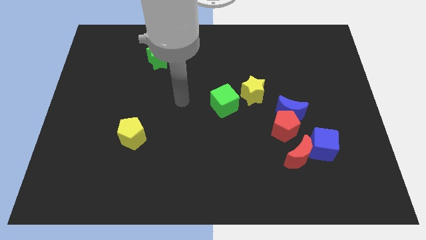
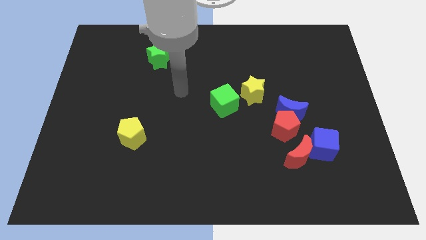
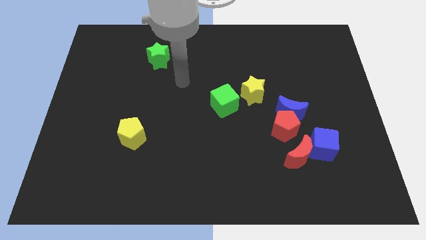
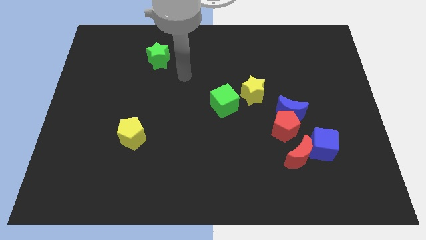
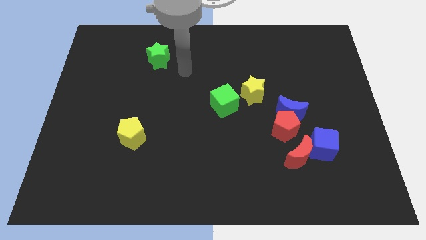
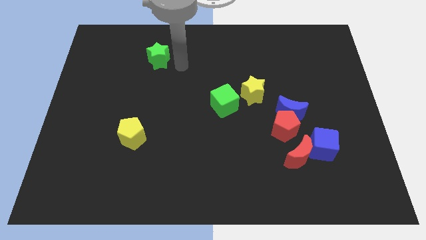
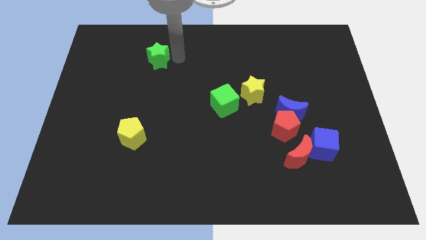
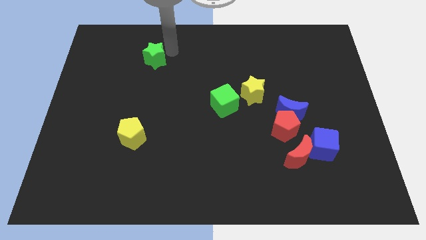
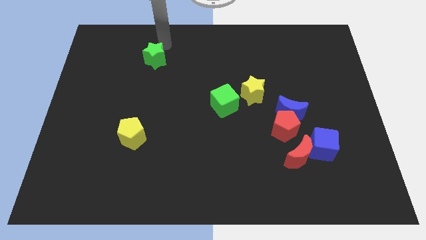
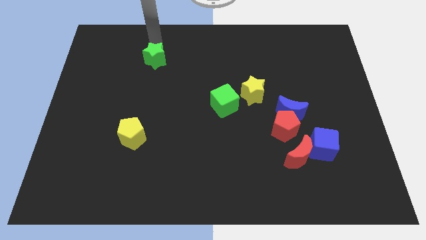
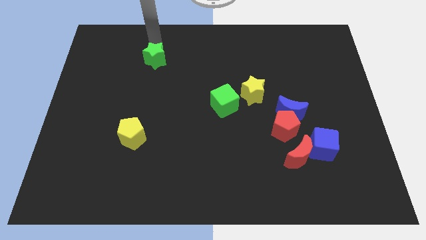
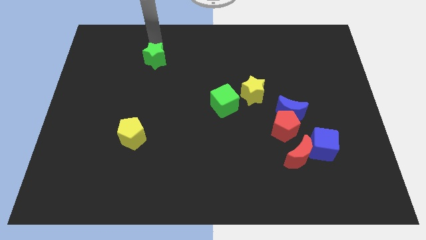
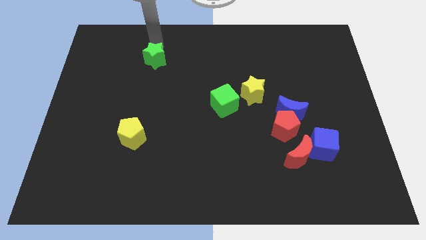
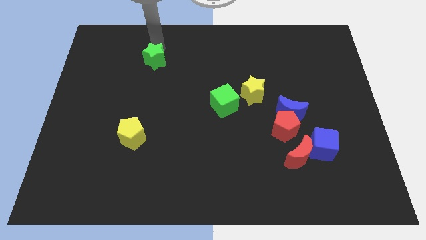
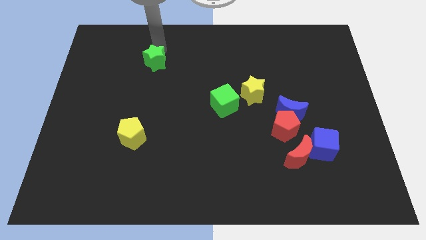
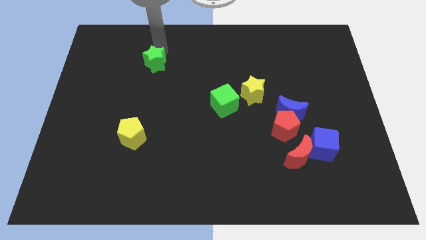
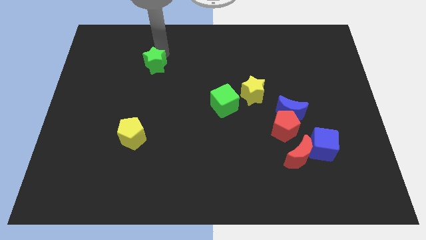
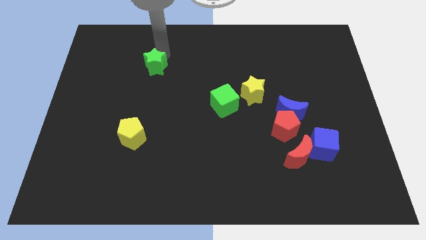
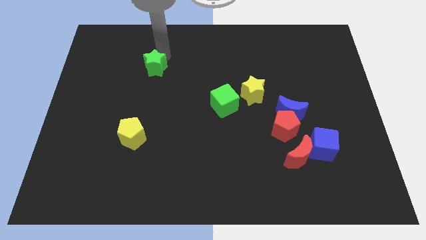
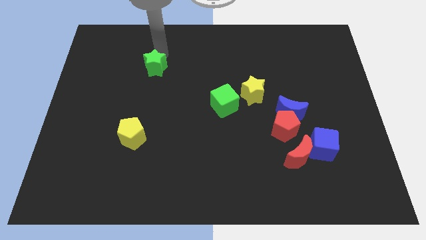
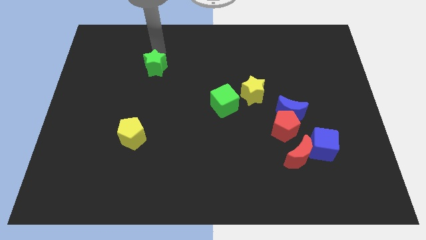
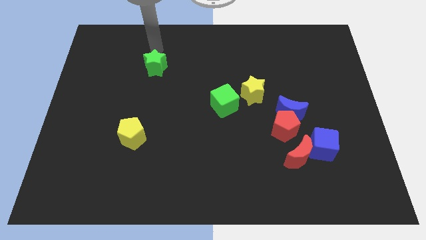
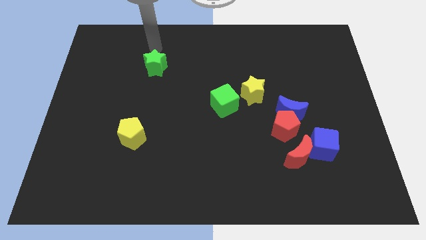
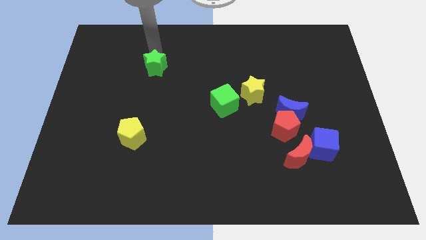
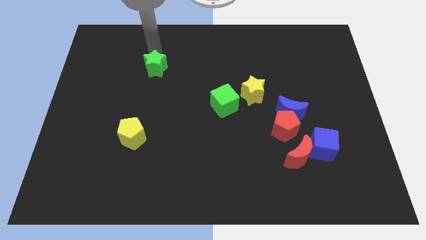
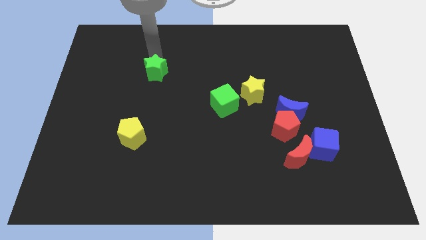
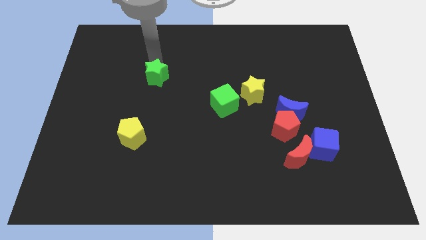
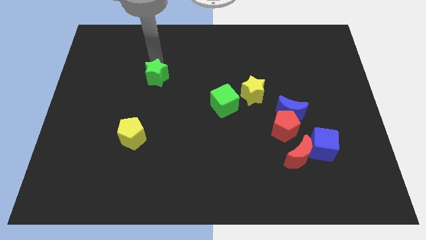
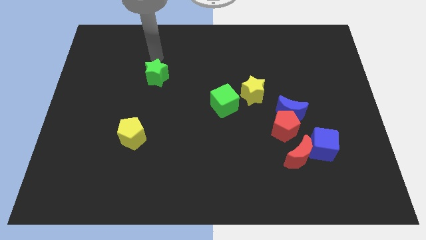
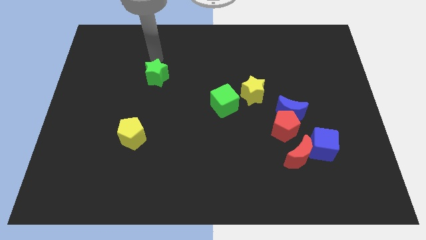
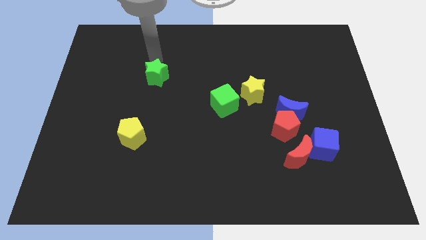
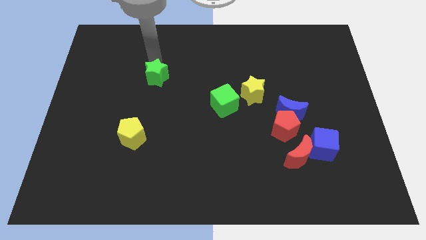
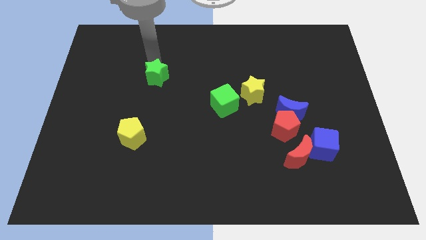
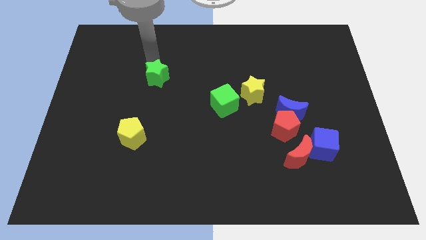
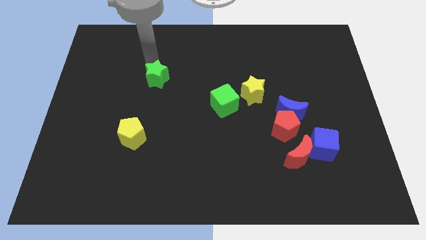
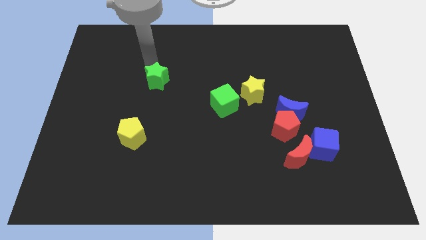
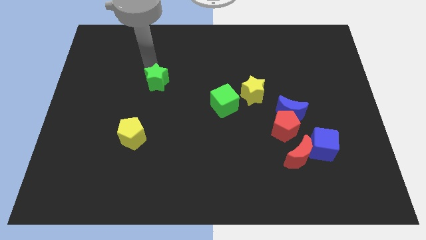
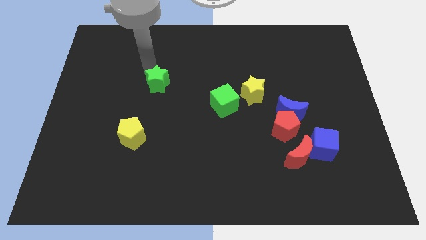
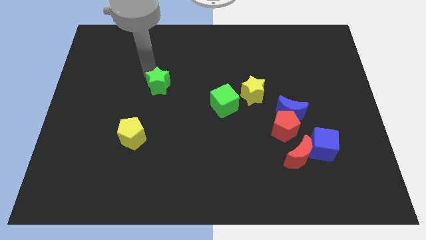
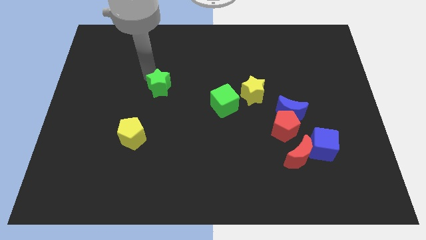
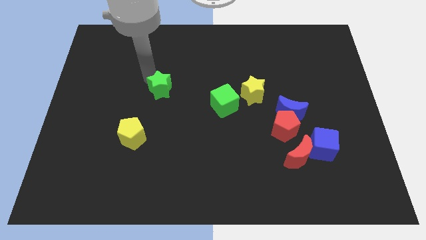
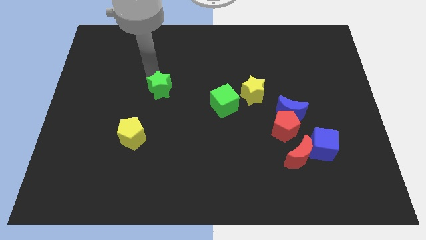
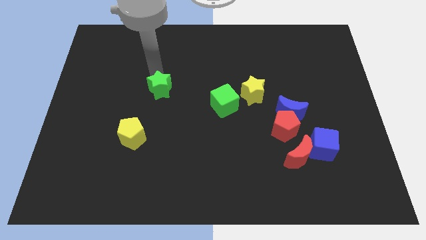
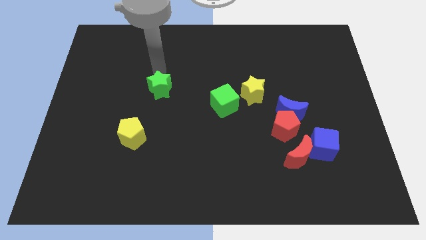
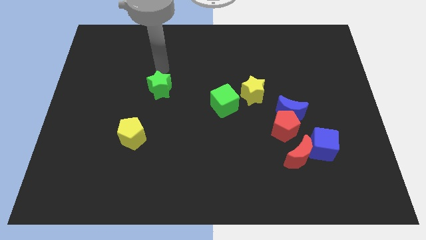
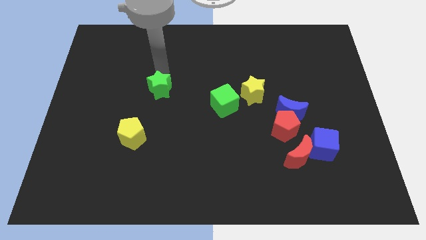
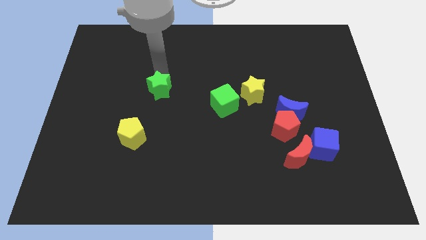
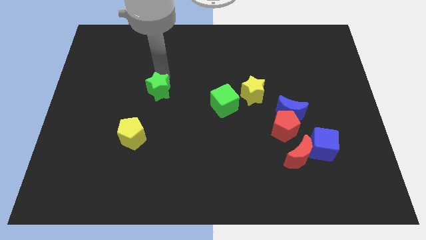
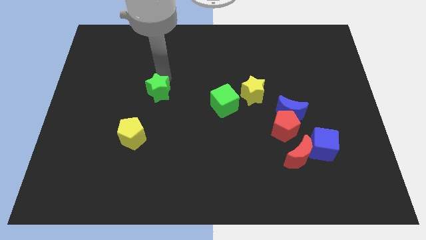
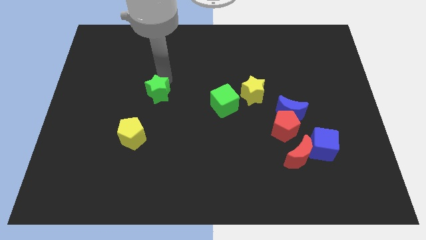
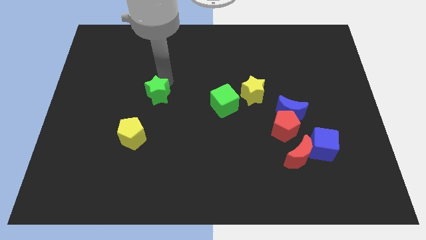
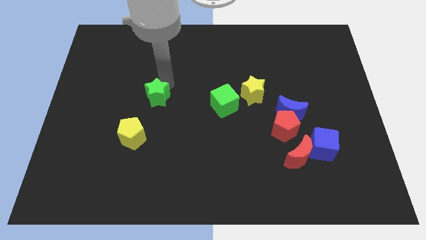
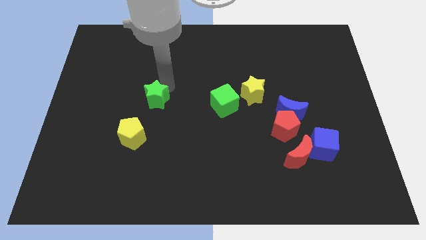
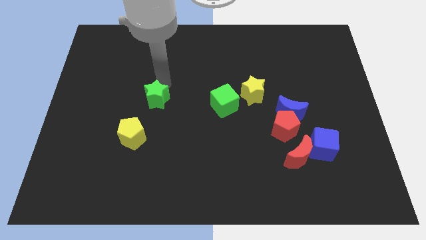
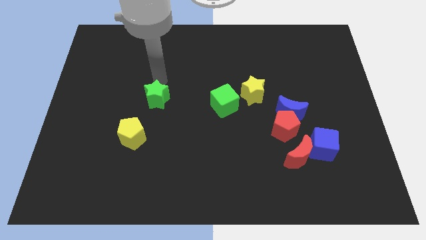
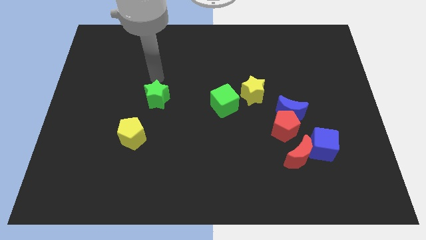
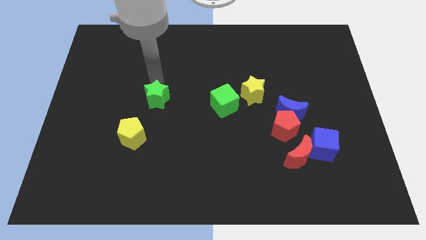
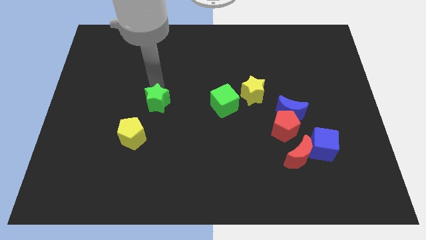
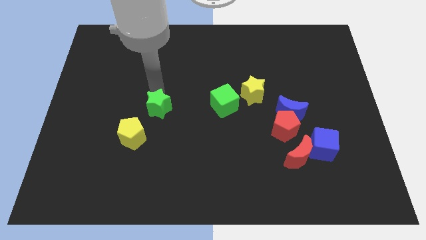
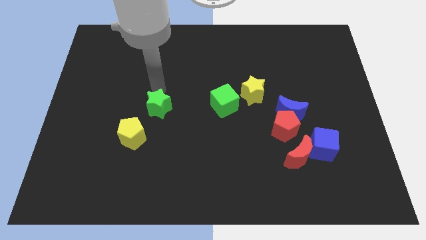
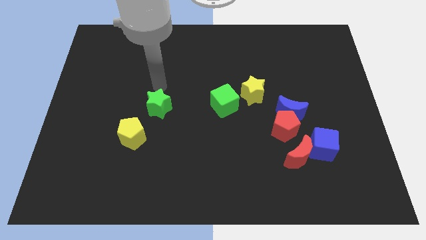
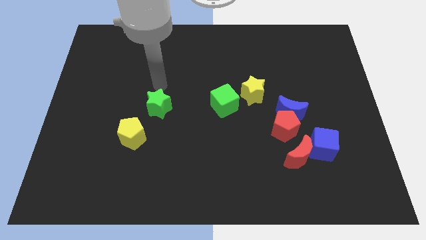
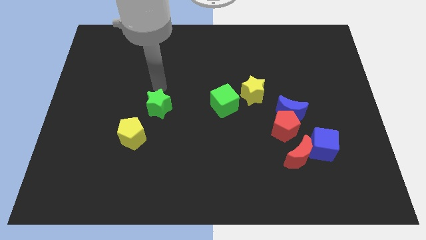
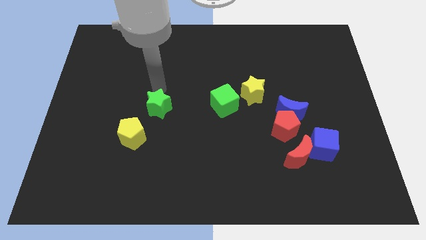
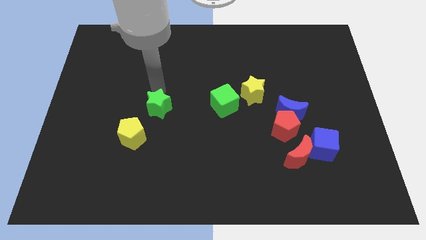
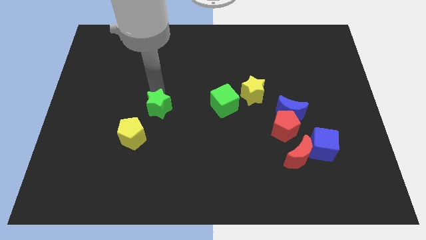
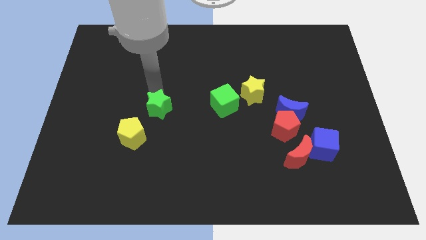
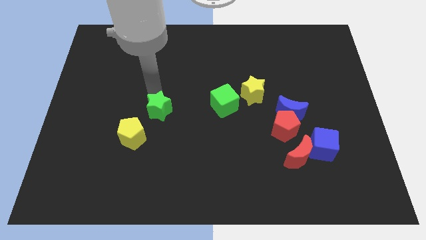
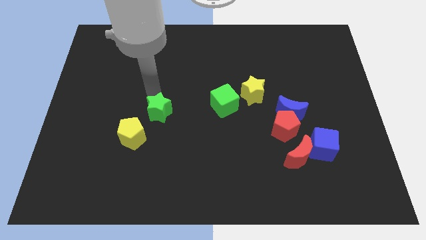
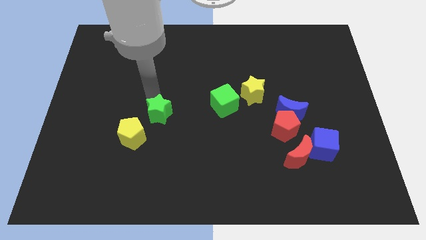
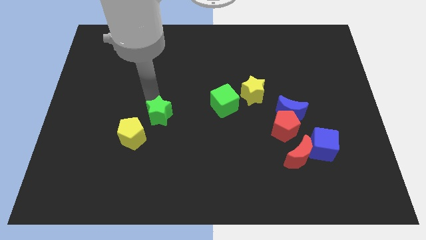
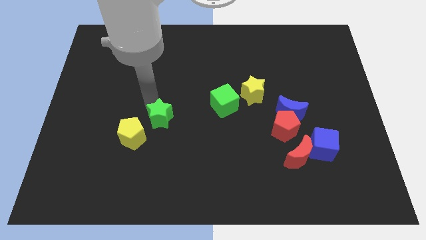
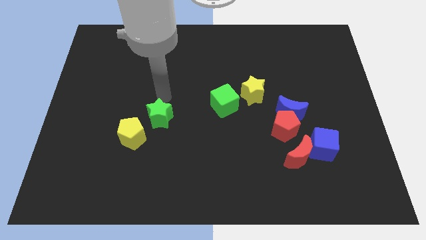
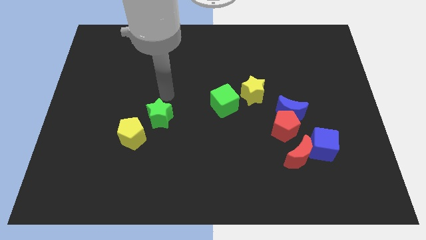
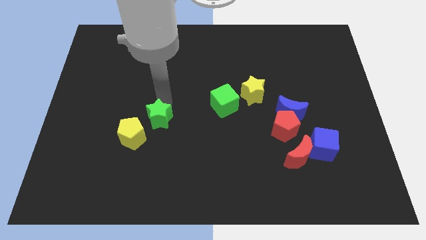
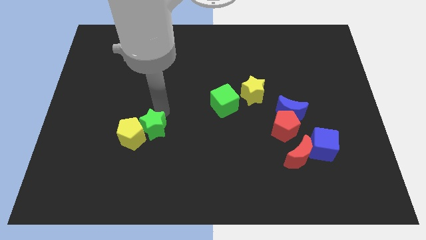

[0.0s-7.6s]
push the green star down

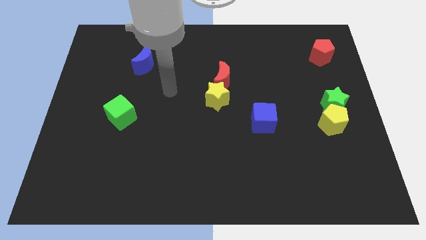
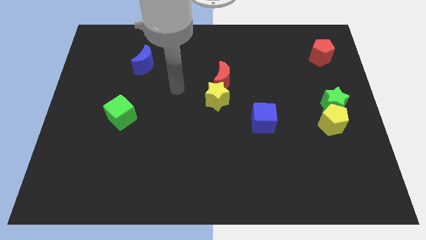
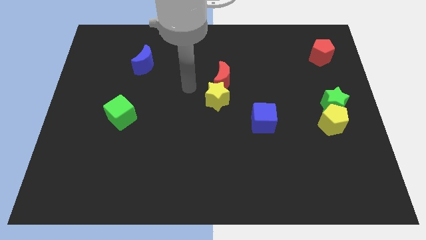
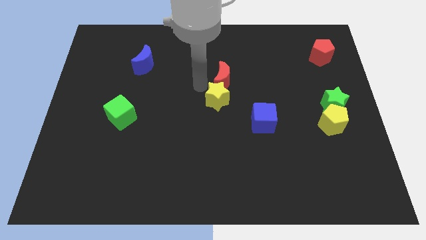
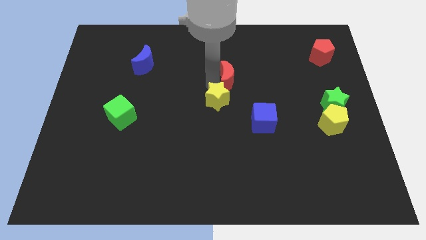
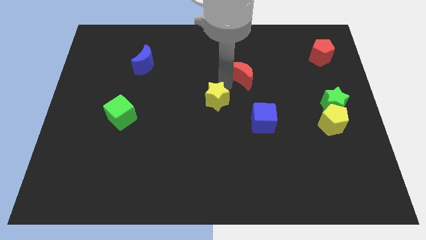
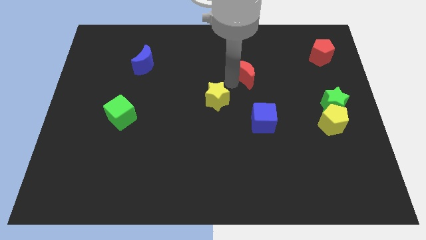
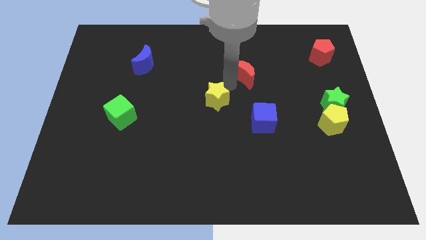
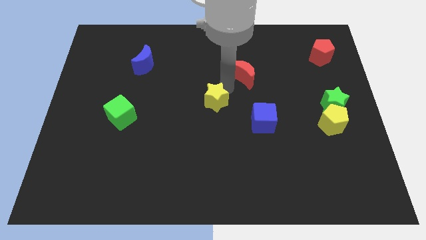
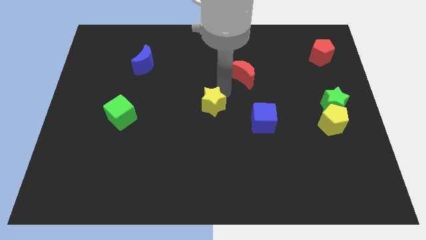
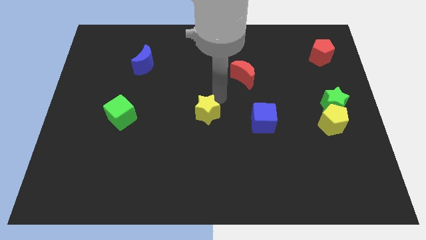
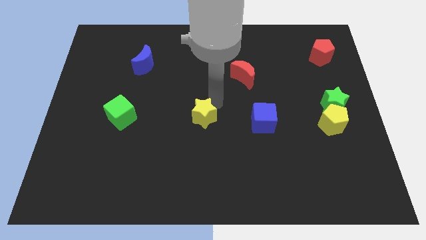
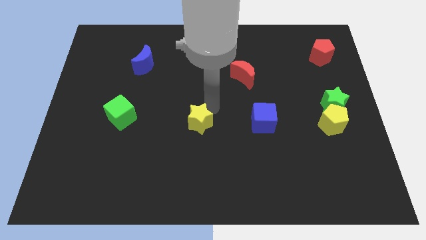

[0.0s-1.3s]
push the yellow star a little downwards and then left
